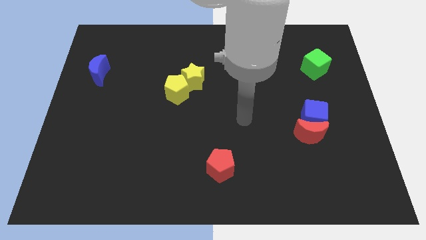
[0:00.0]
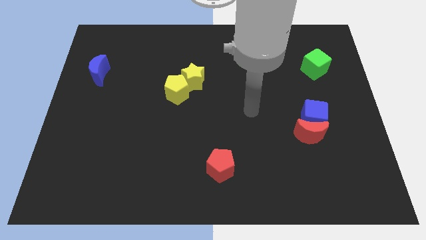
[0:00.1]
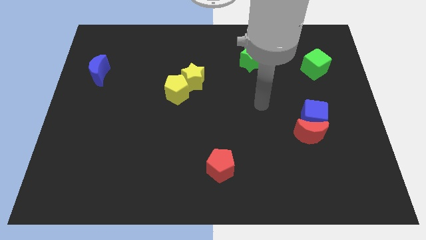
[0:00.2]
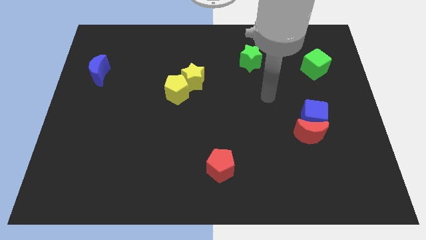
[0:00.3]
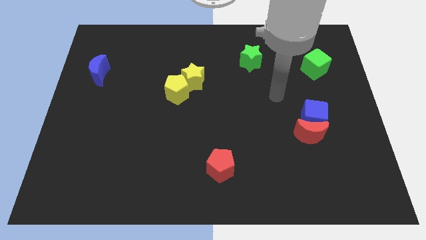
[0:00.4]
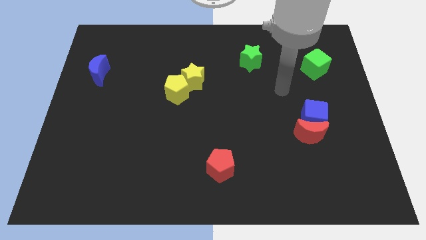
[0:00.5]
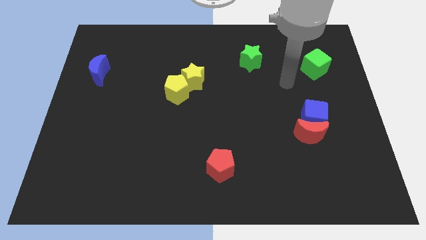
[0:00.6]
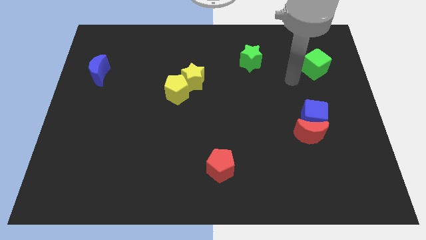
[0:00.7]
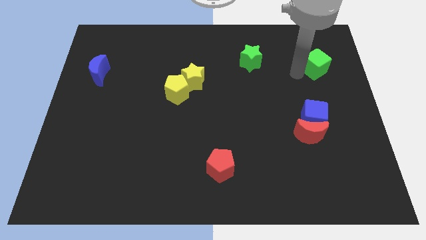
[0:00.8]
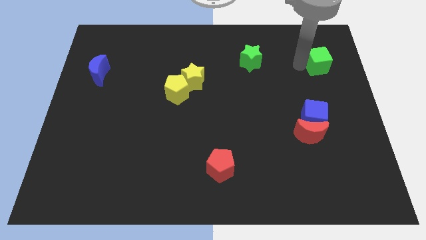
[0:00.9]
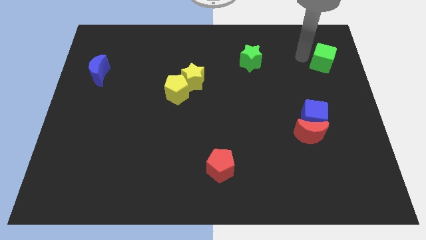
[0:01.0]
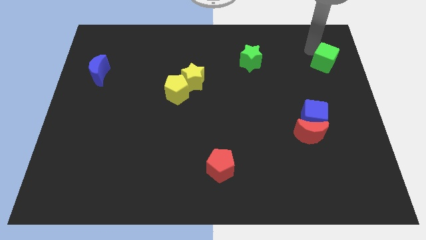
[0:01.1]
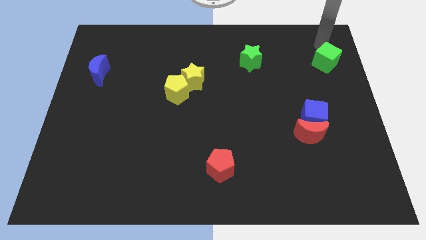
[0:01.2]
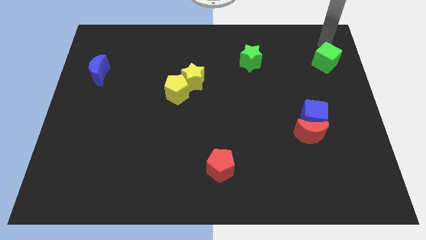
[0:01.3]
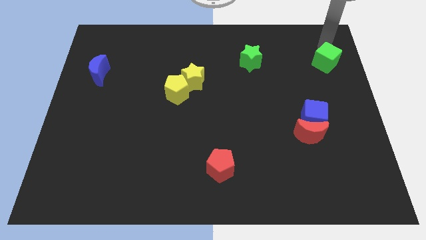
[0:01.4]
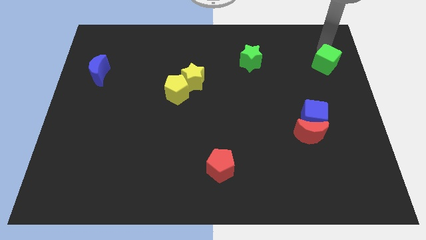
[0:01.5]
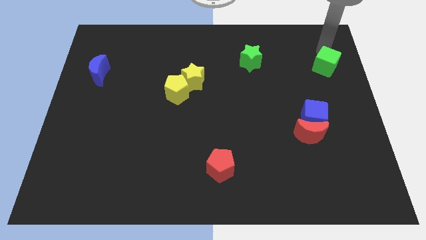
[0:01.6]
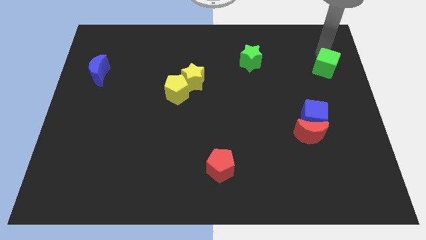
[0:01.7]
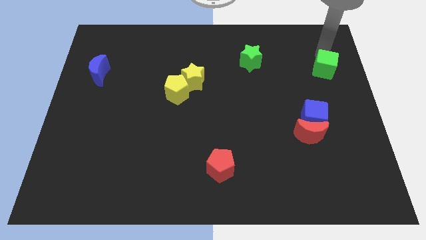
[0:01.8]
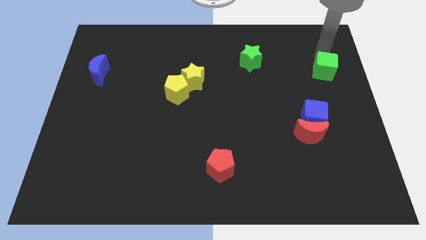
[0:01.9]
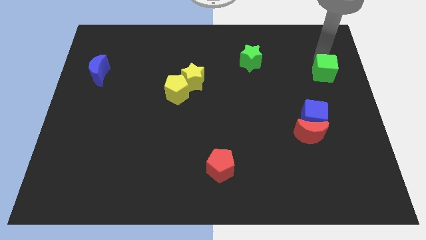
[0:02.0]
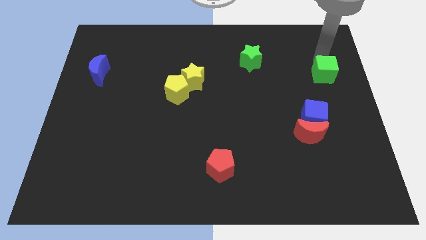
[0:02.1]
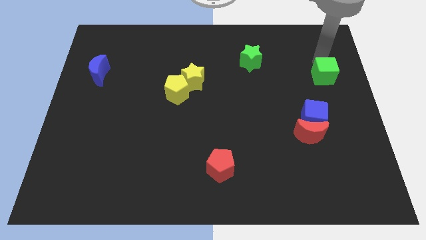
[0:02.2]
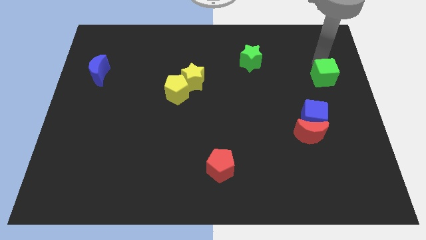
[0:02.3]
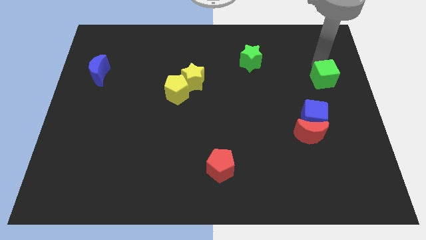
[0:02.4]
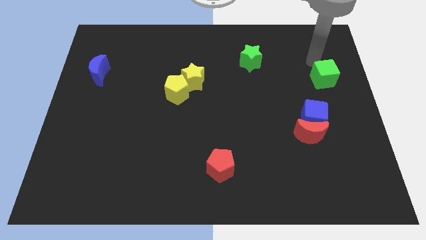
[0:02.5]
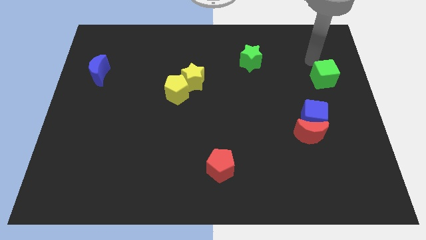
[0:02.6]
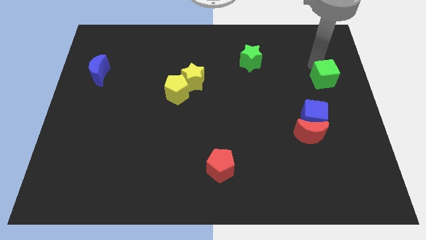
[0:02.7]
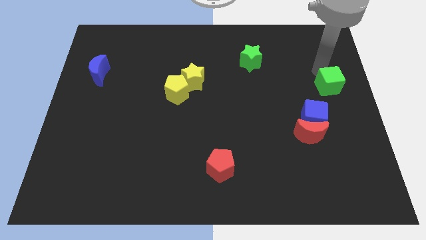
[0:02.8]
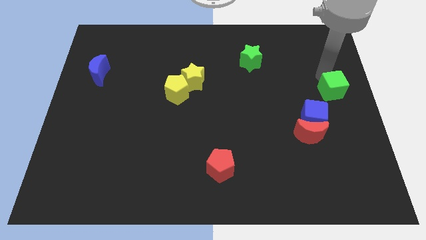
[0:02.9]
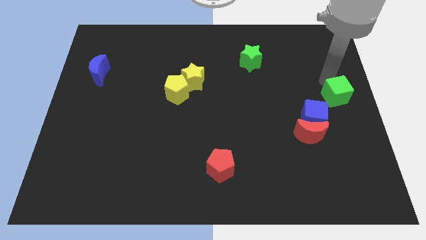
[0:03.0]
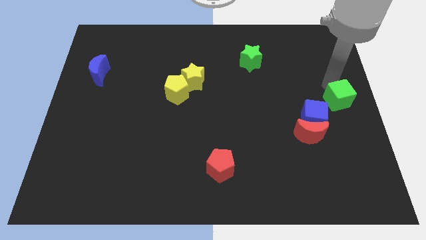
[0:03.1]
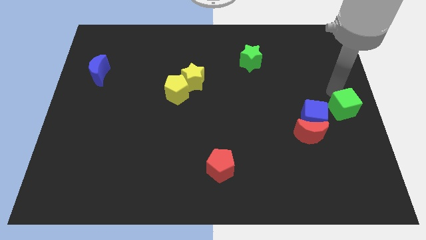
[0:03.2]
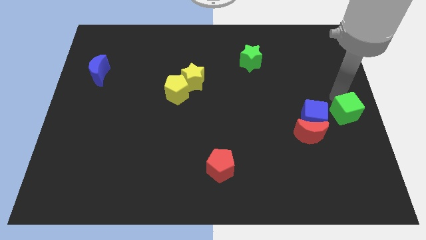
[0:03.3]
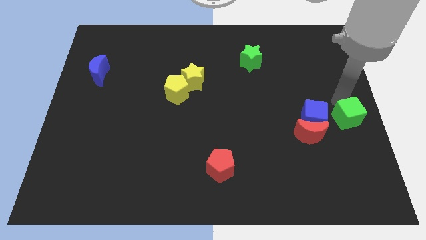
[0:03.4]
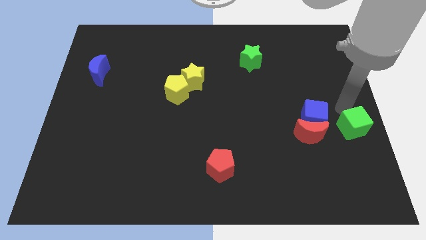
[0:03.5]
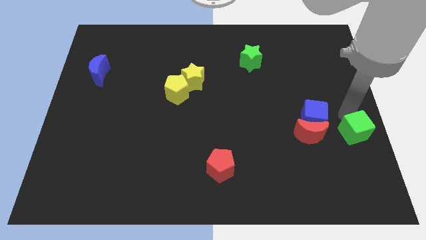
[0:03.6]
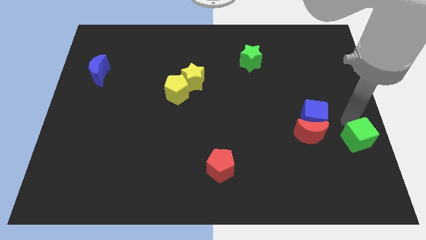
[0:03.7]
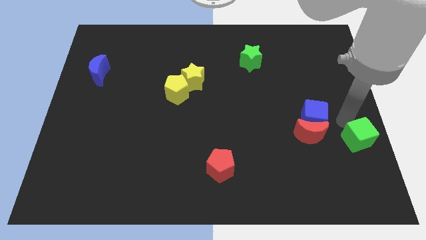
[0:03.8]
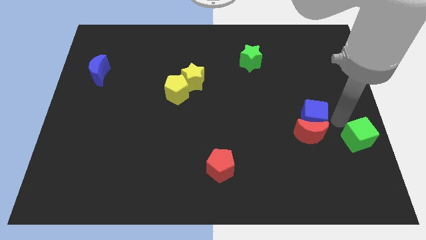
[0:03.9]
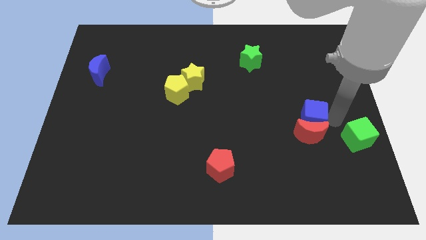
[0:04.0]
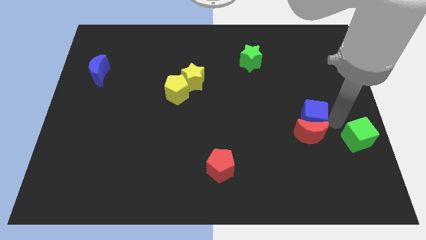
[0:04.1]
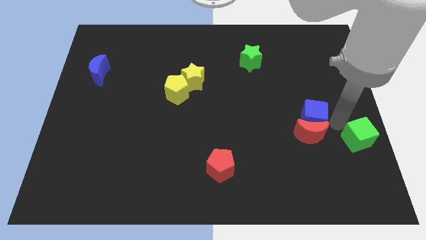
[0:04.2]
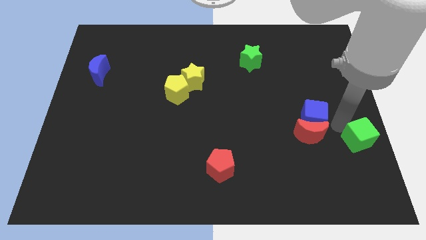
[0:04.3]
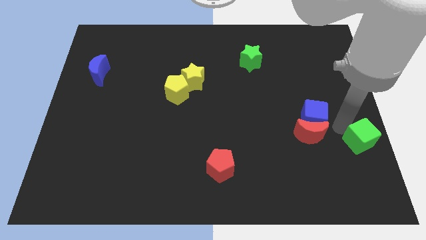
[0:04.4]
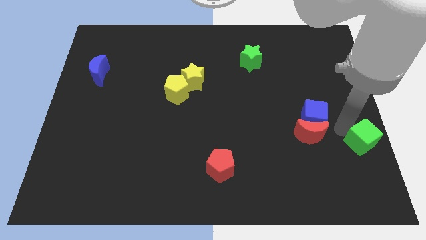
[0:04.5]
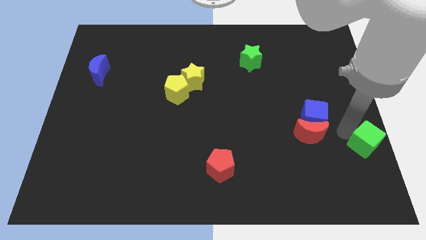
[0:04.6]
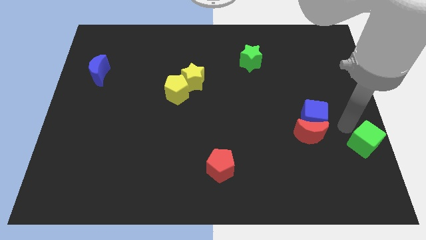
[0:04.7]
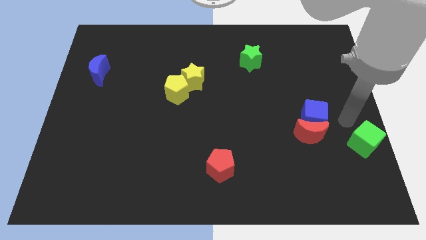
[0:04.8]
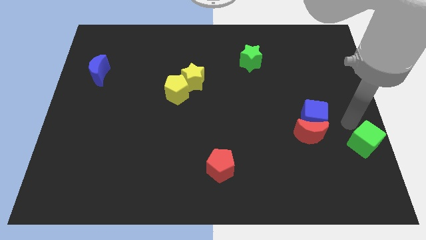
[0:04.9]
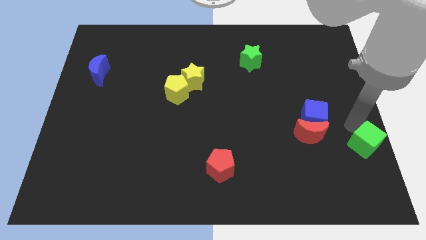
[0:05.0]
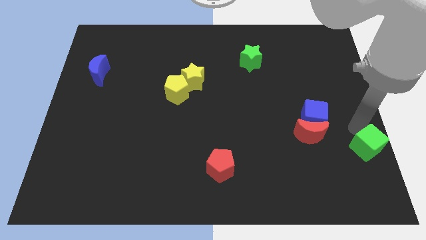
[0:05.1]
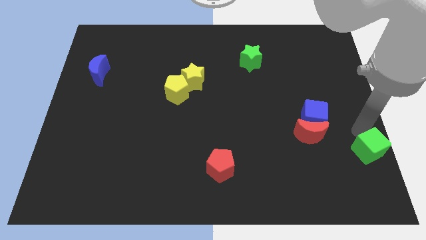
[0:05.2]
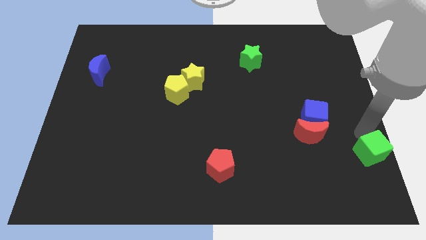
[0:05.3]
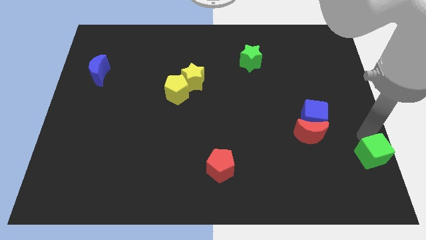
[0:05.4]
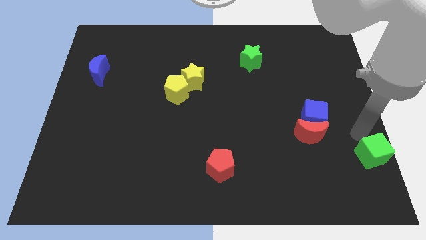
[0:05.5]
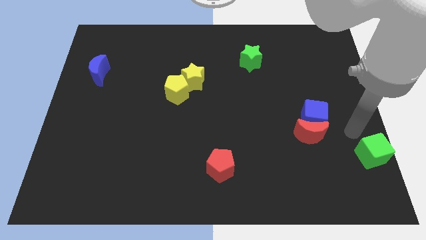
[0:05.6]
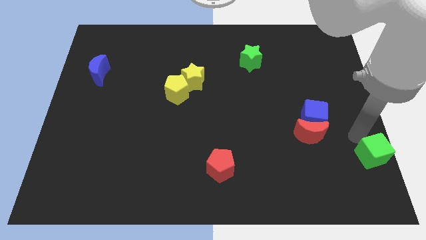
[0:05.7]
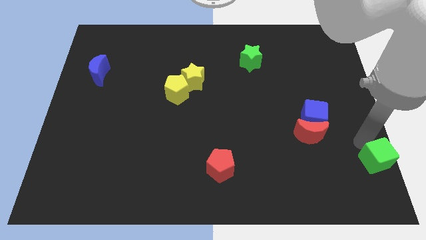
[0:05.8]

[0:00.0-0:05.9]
slide the green cube to the bottom right

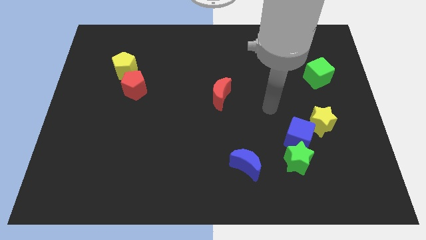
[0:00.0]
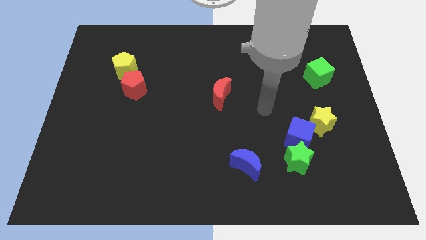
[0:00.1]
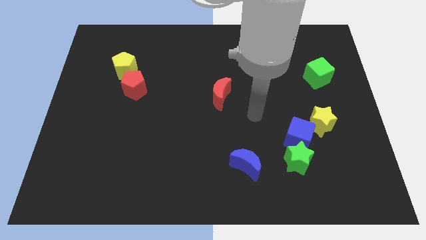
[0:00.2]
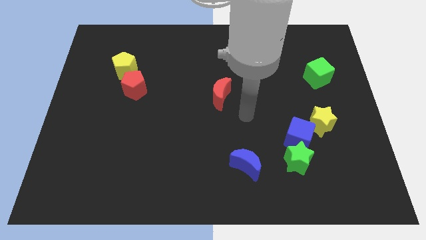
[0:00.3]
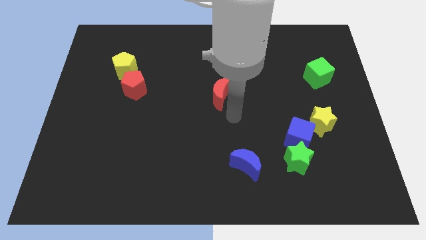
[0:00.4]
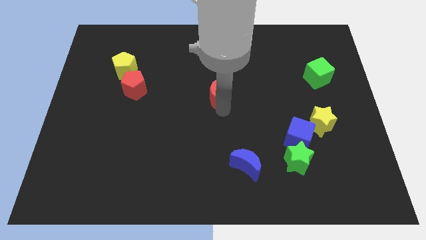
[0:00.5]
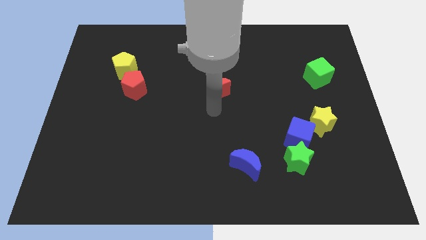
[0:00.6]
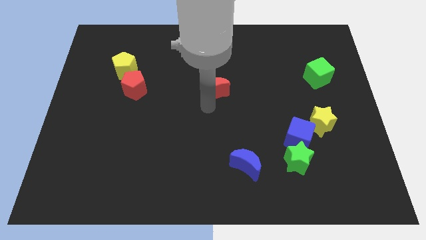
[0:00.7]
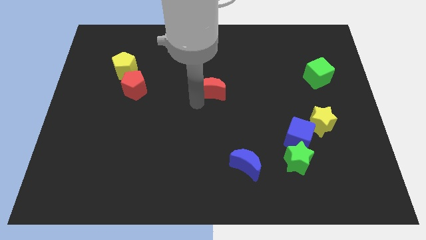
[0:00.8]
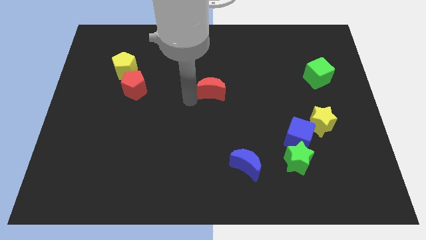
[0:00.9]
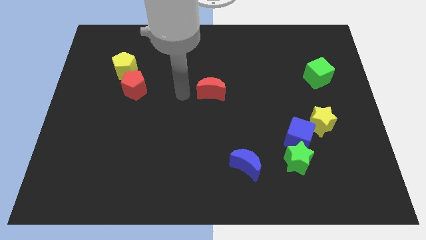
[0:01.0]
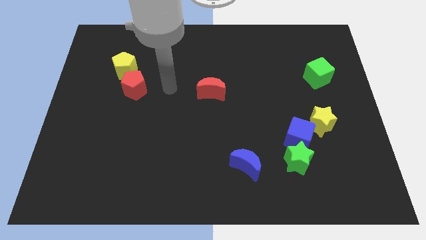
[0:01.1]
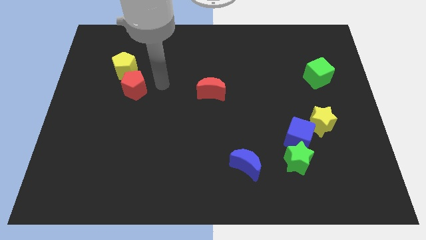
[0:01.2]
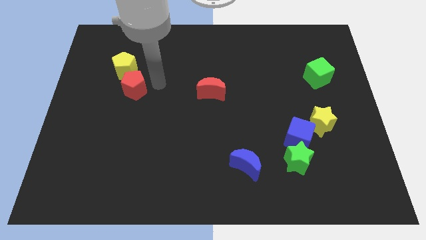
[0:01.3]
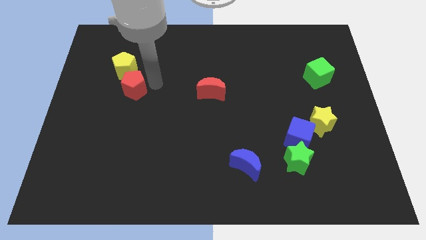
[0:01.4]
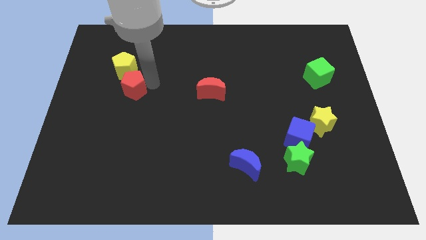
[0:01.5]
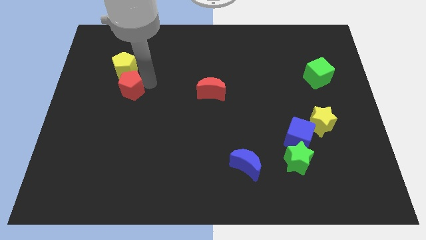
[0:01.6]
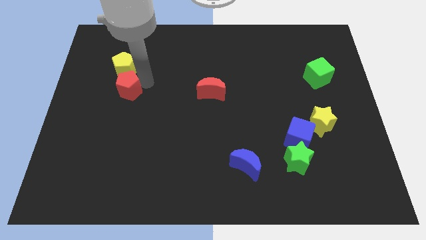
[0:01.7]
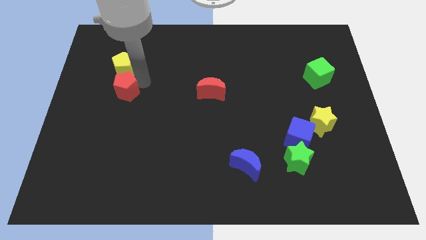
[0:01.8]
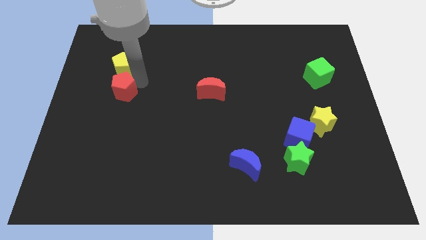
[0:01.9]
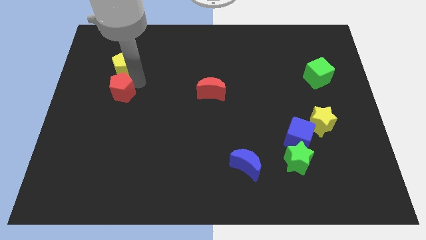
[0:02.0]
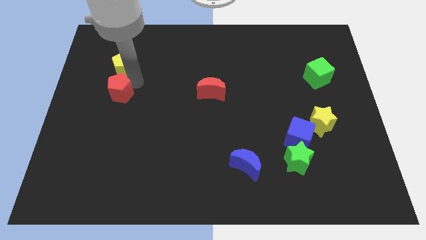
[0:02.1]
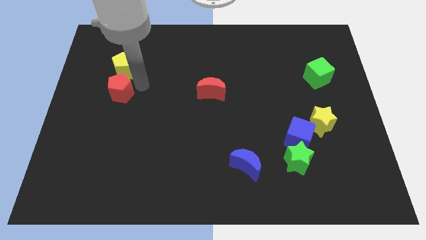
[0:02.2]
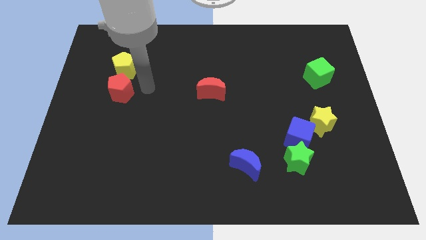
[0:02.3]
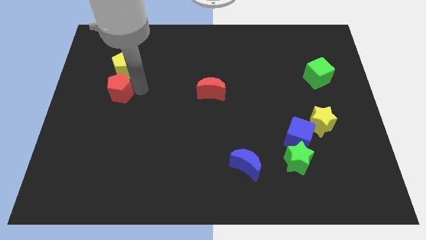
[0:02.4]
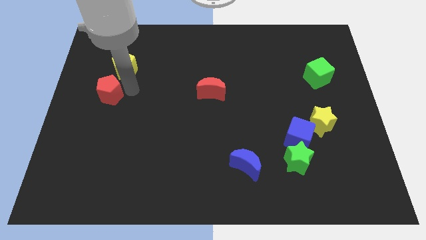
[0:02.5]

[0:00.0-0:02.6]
push the red pentagon to the left side of the board
